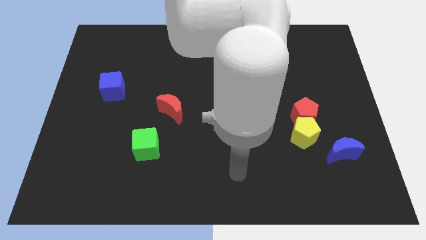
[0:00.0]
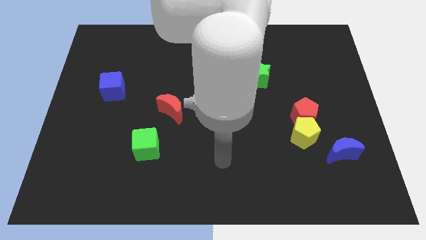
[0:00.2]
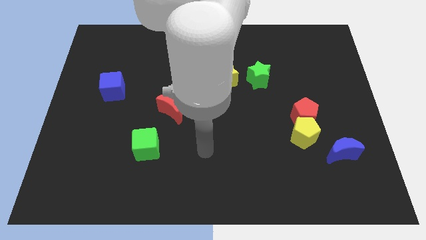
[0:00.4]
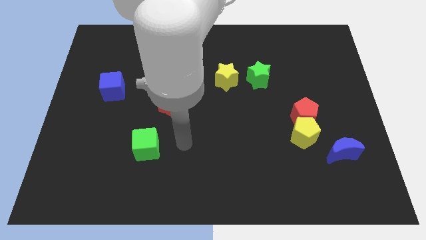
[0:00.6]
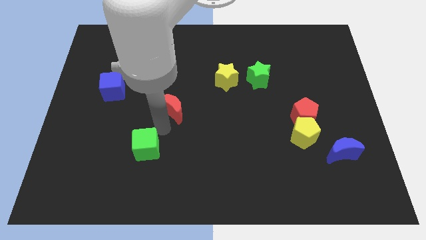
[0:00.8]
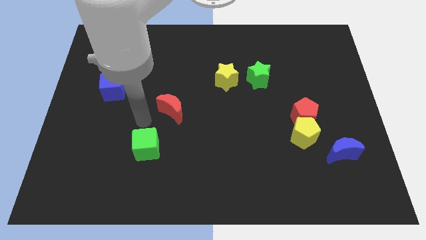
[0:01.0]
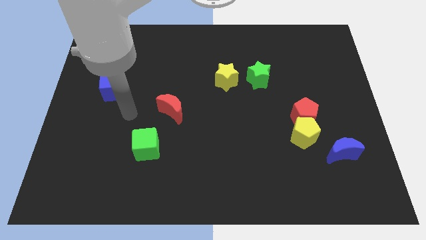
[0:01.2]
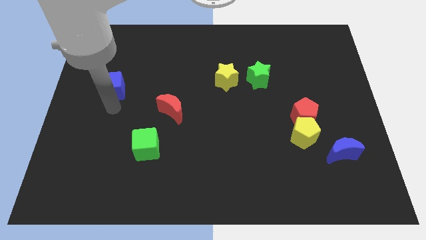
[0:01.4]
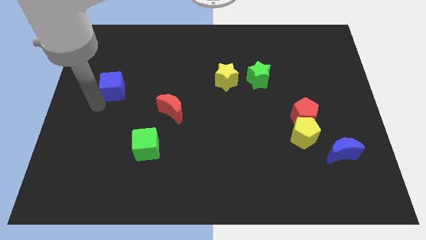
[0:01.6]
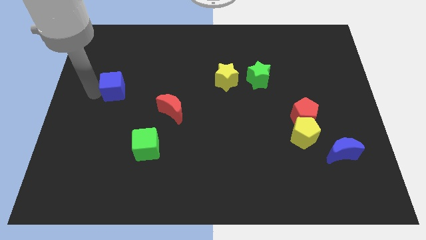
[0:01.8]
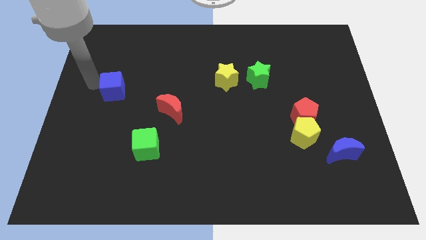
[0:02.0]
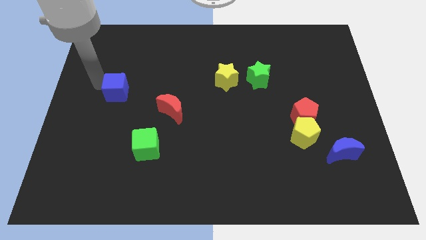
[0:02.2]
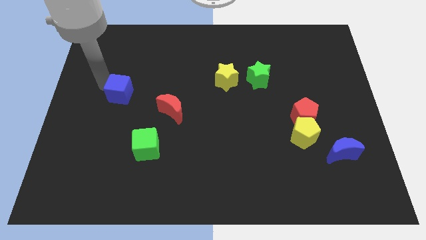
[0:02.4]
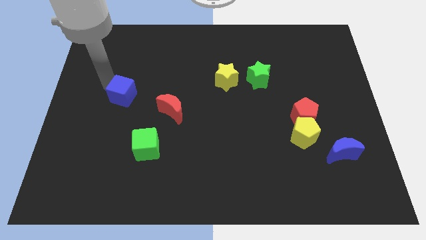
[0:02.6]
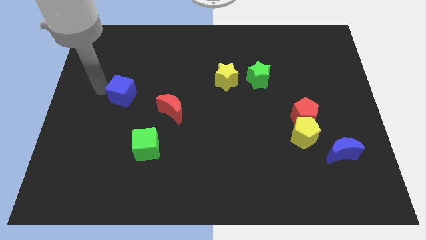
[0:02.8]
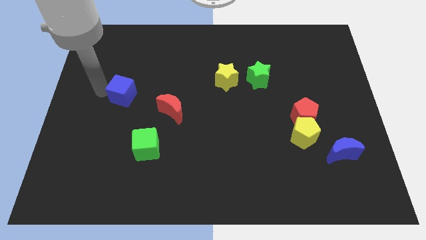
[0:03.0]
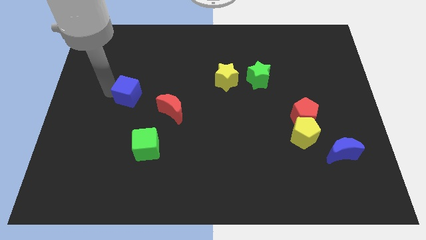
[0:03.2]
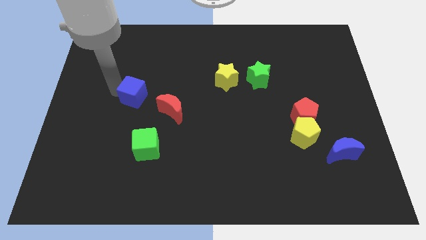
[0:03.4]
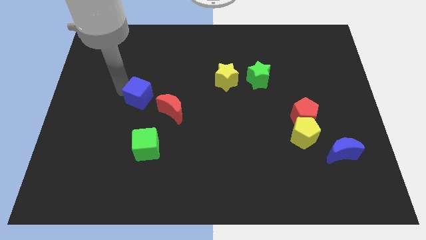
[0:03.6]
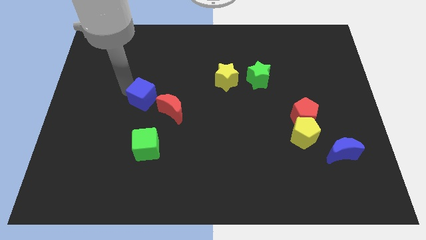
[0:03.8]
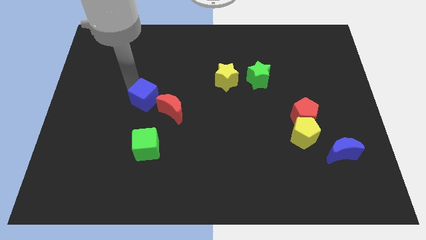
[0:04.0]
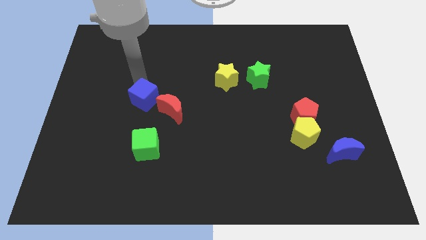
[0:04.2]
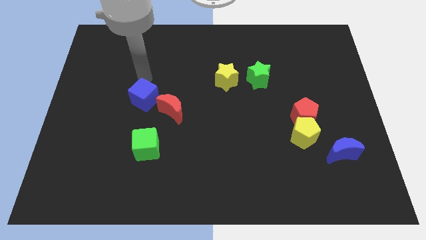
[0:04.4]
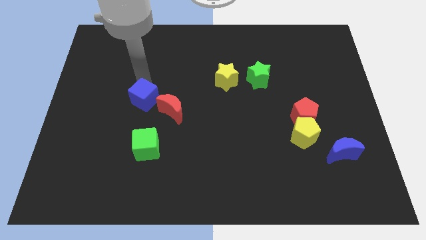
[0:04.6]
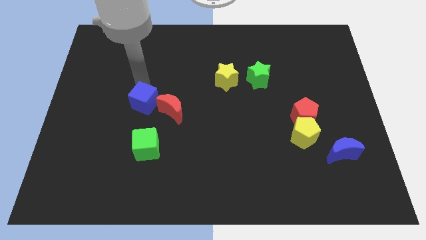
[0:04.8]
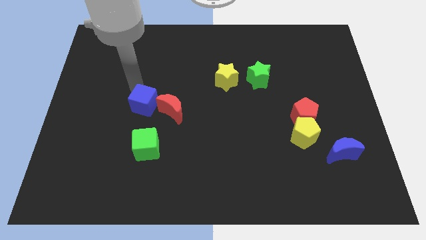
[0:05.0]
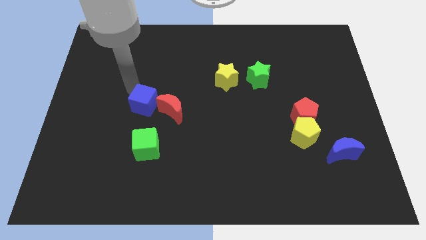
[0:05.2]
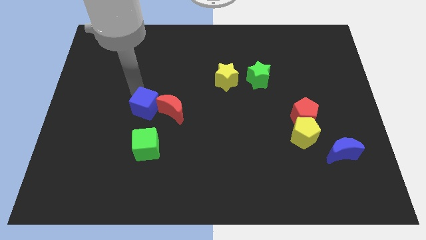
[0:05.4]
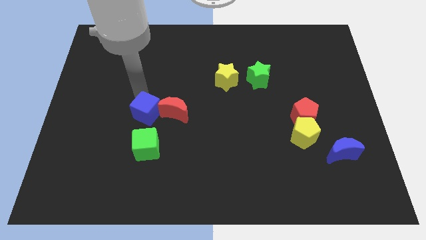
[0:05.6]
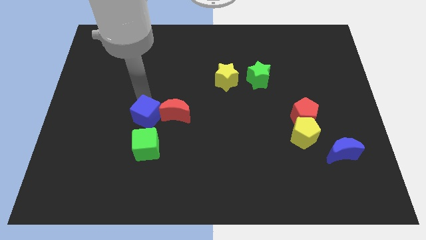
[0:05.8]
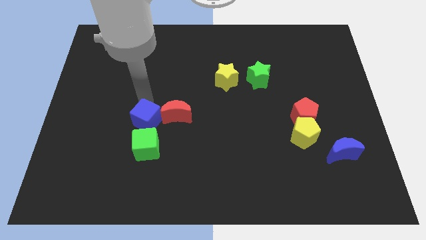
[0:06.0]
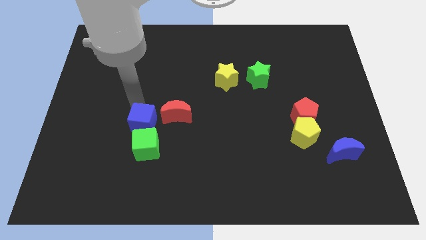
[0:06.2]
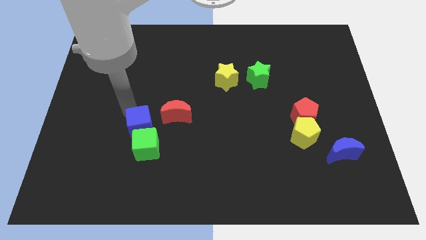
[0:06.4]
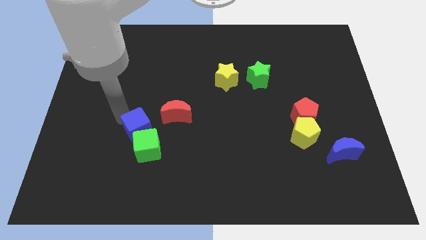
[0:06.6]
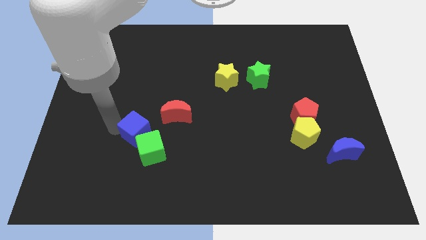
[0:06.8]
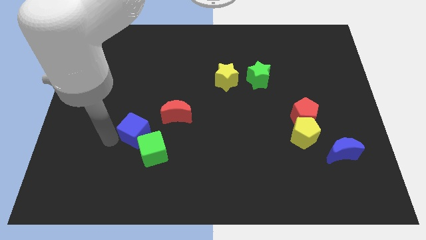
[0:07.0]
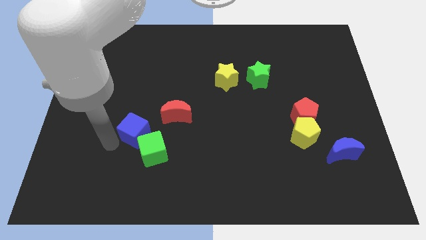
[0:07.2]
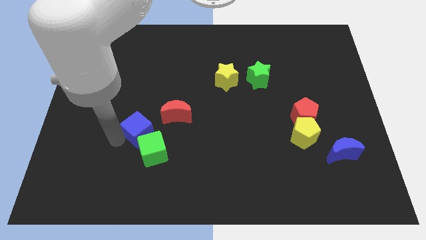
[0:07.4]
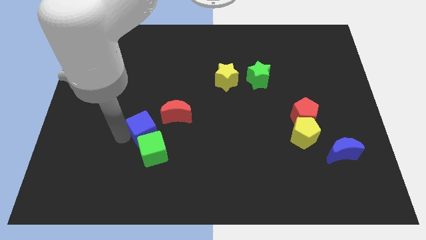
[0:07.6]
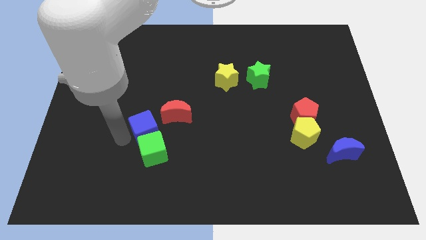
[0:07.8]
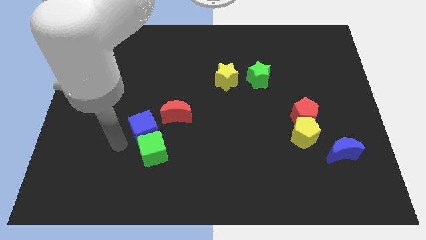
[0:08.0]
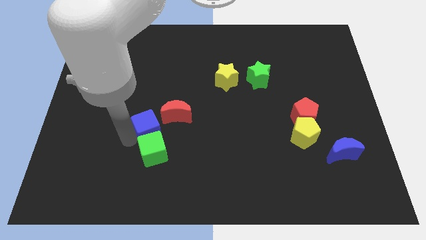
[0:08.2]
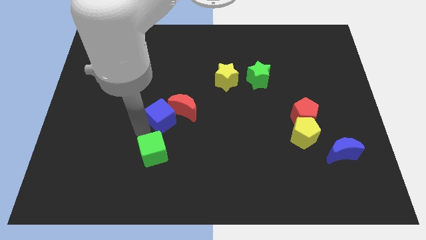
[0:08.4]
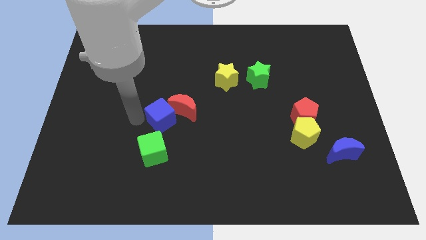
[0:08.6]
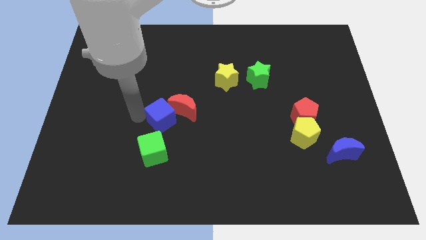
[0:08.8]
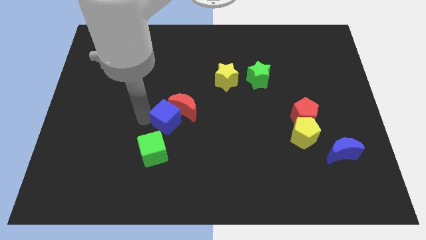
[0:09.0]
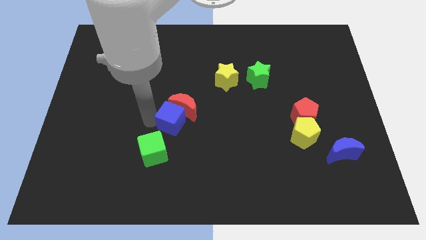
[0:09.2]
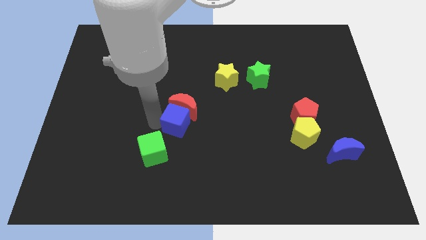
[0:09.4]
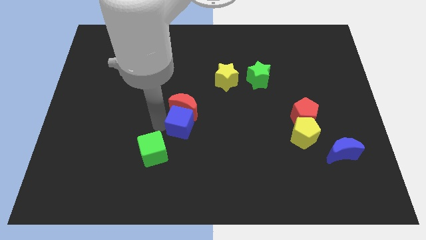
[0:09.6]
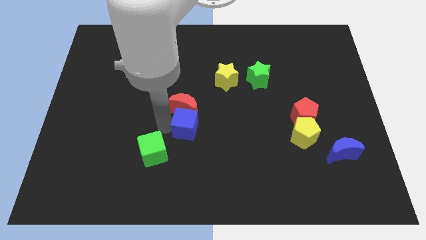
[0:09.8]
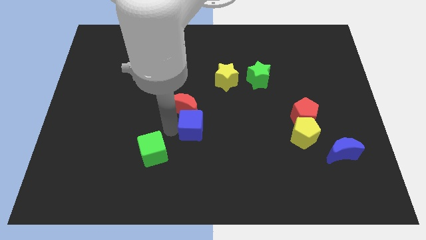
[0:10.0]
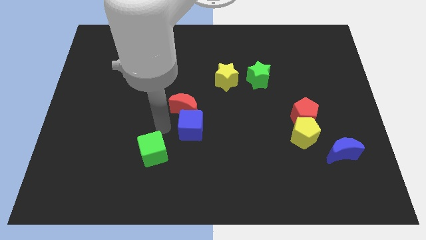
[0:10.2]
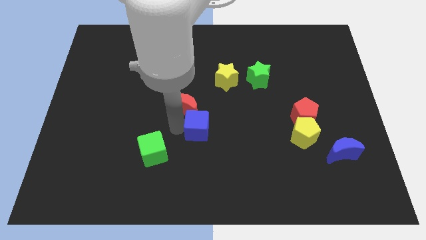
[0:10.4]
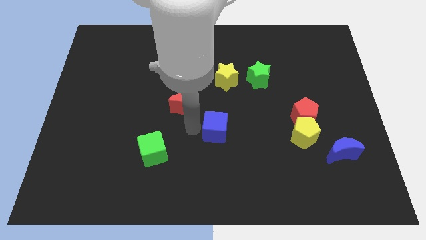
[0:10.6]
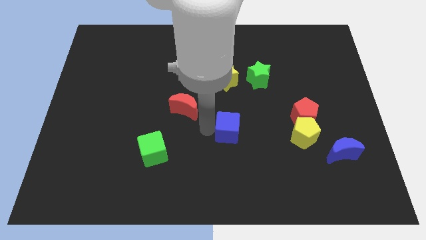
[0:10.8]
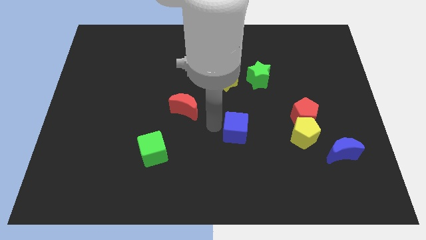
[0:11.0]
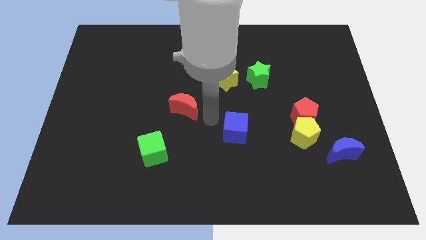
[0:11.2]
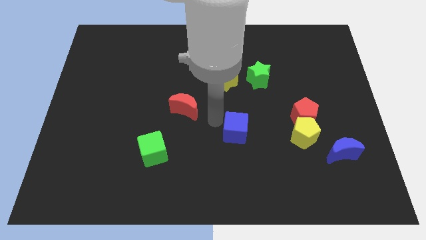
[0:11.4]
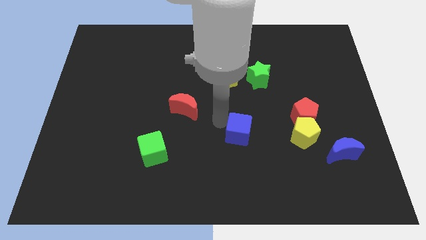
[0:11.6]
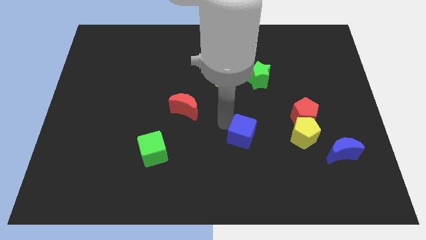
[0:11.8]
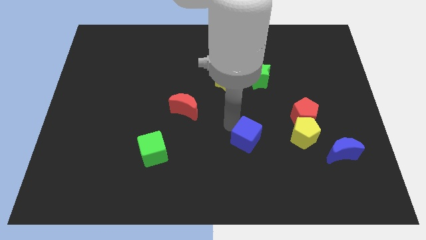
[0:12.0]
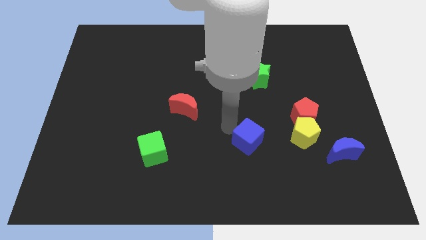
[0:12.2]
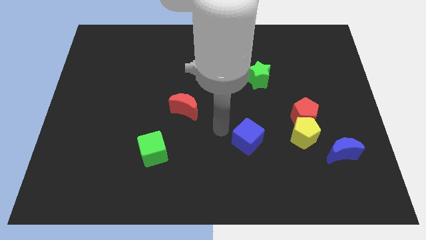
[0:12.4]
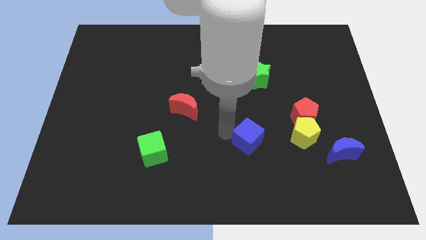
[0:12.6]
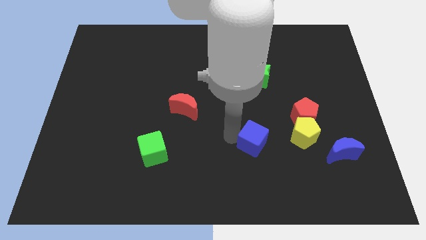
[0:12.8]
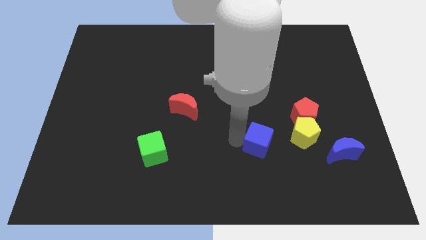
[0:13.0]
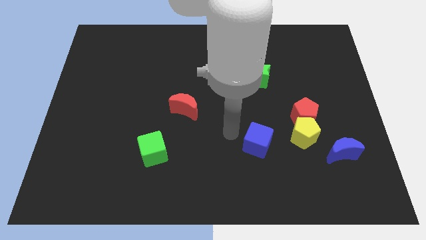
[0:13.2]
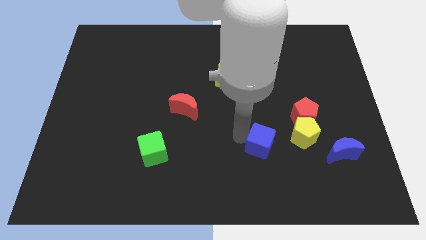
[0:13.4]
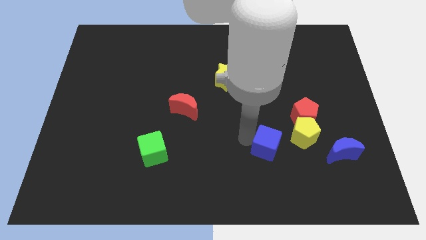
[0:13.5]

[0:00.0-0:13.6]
slide the blue cube left of the blue moon

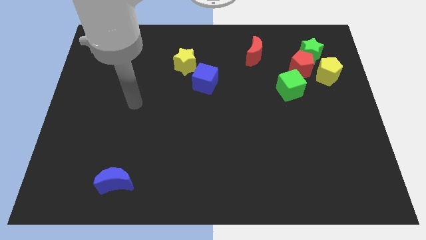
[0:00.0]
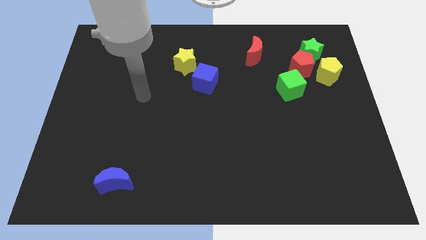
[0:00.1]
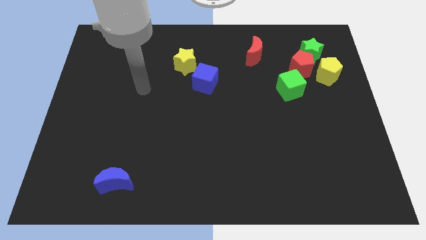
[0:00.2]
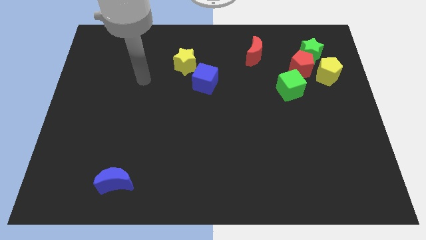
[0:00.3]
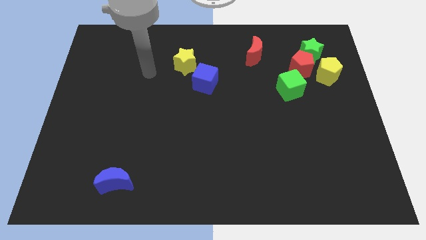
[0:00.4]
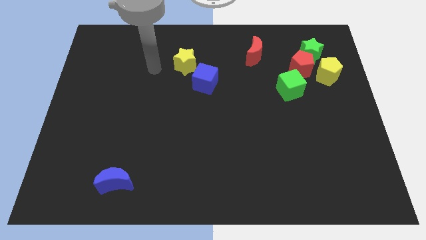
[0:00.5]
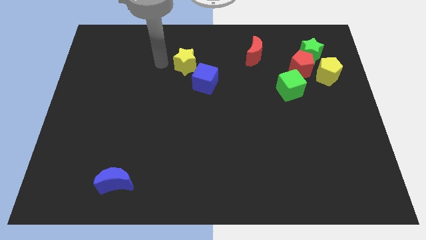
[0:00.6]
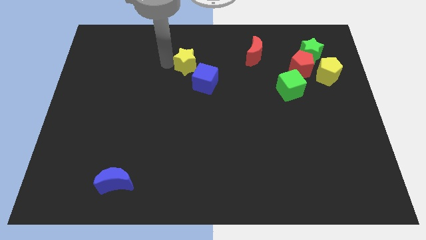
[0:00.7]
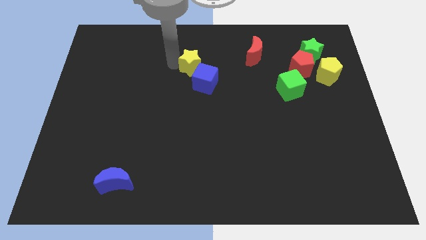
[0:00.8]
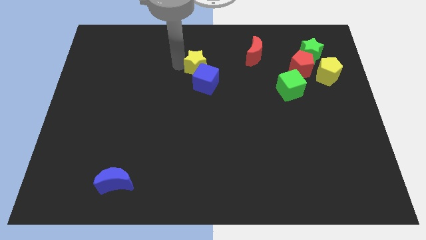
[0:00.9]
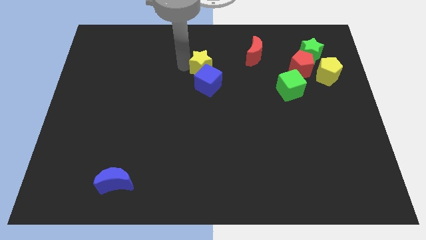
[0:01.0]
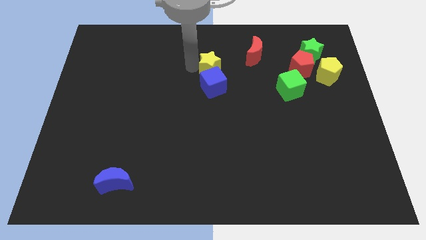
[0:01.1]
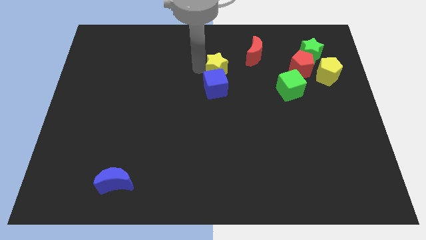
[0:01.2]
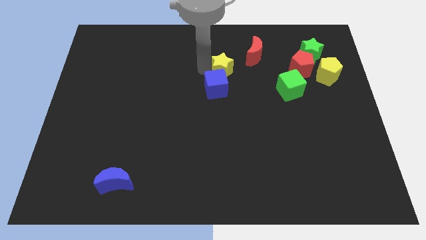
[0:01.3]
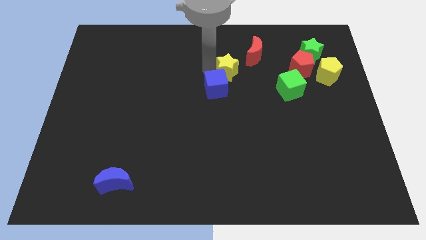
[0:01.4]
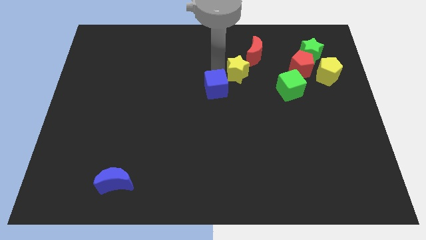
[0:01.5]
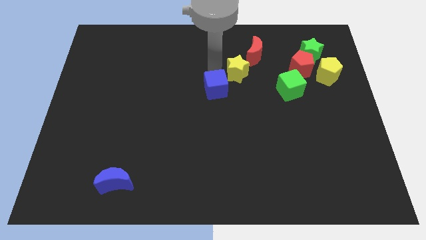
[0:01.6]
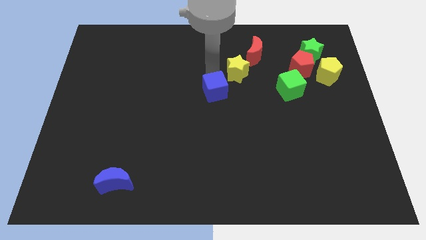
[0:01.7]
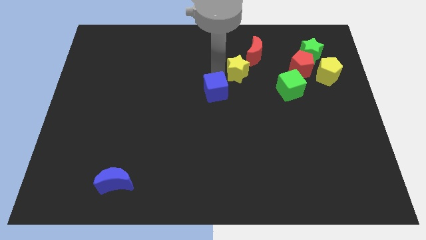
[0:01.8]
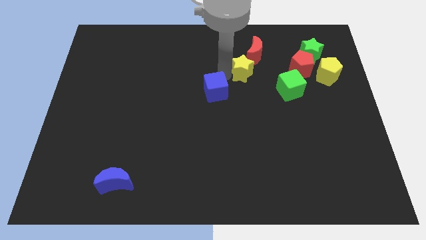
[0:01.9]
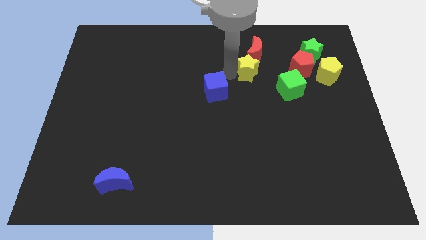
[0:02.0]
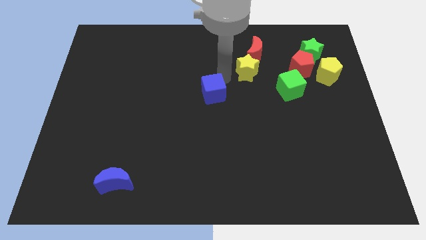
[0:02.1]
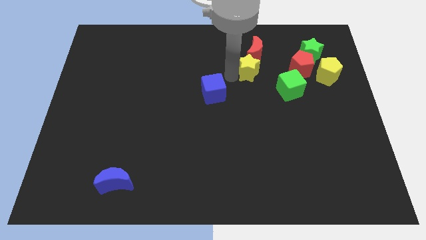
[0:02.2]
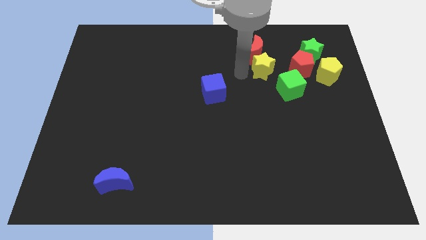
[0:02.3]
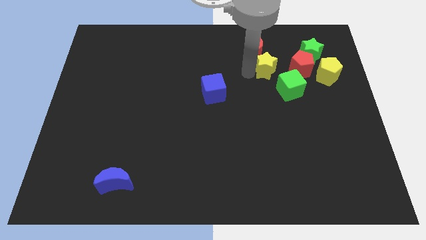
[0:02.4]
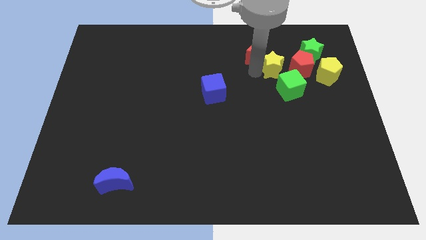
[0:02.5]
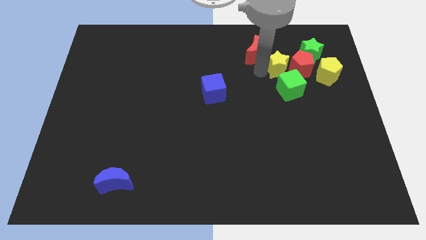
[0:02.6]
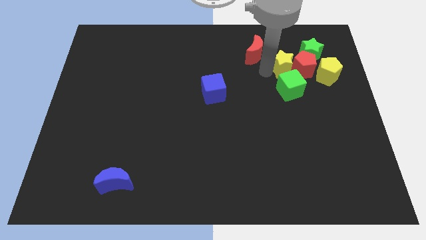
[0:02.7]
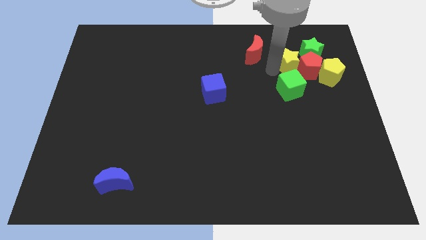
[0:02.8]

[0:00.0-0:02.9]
push the yellow star to the top left side of the yellow pentagon
